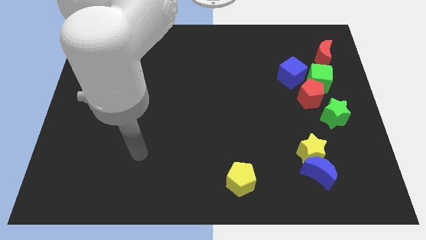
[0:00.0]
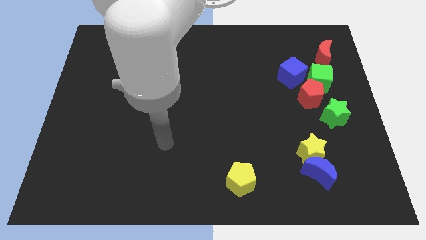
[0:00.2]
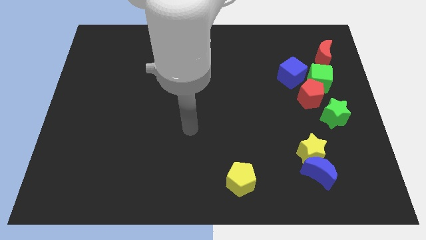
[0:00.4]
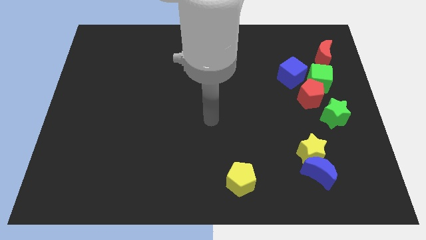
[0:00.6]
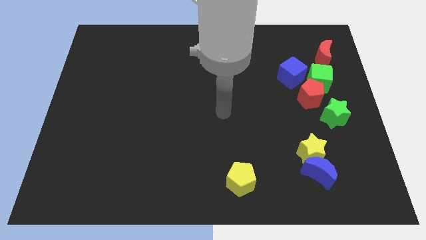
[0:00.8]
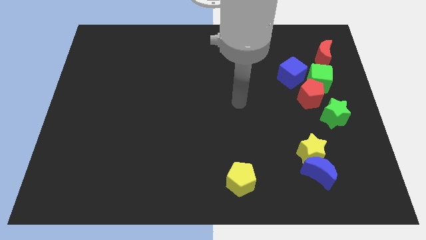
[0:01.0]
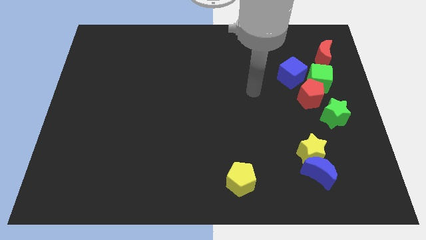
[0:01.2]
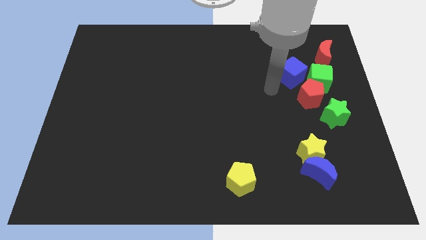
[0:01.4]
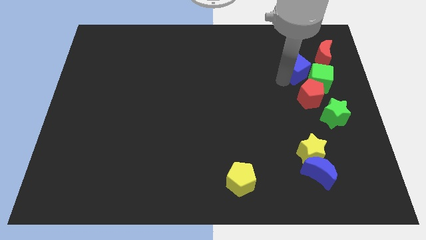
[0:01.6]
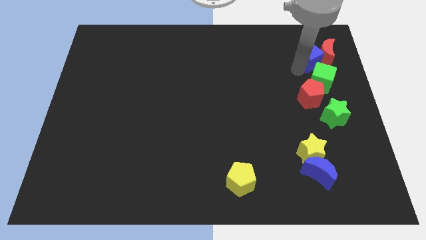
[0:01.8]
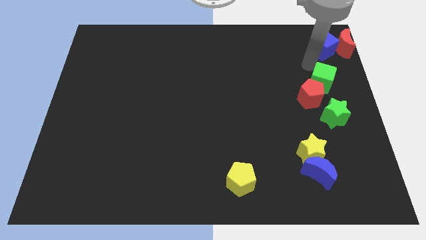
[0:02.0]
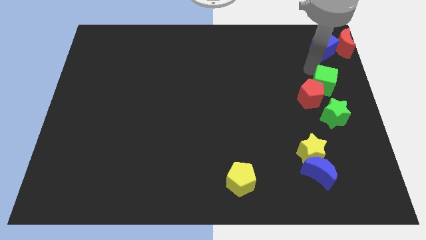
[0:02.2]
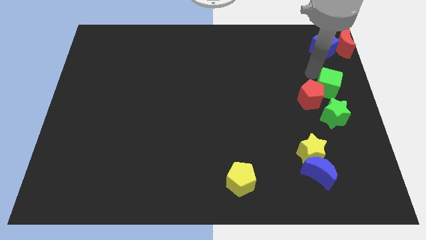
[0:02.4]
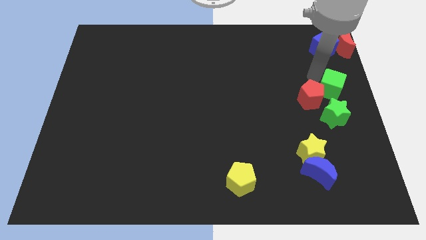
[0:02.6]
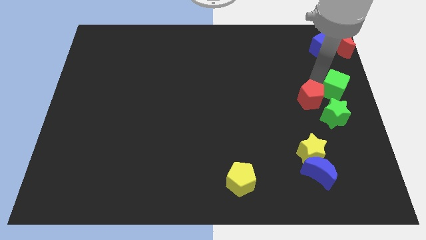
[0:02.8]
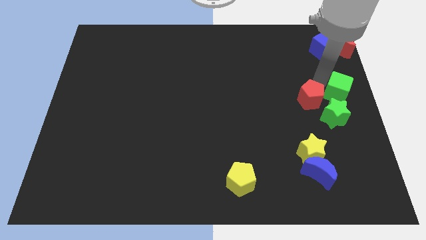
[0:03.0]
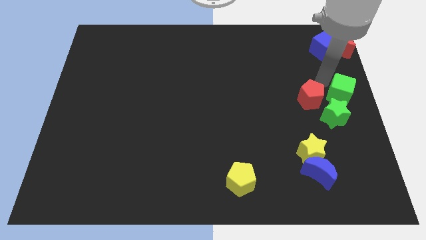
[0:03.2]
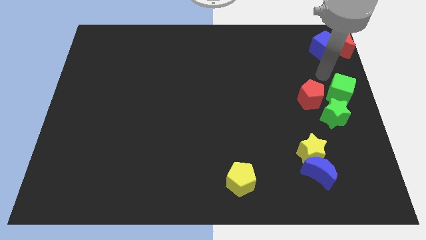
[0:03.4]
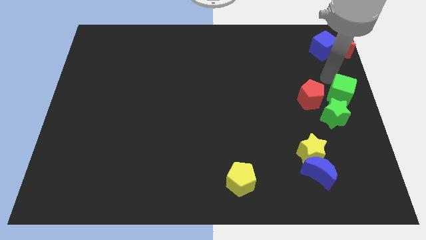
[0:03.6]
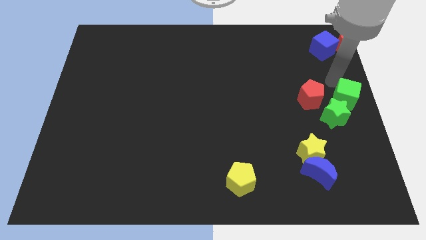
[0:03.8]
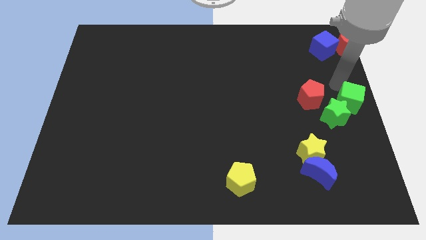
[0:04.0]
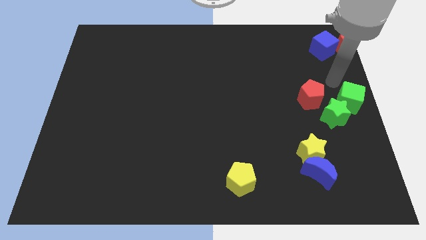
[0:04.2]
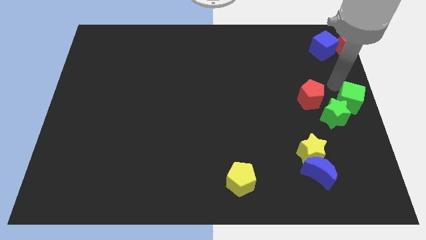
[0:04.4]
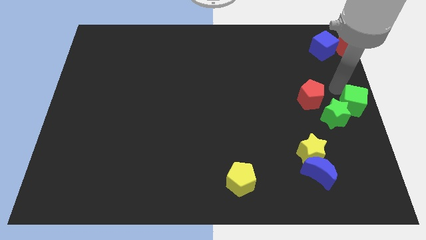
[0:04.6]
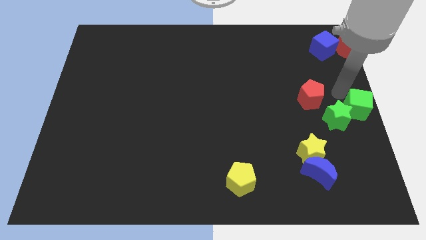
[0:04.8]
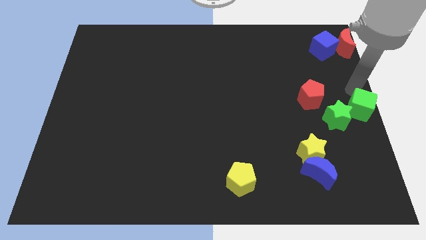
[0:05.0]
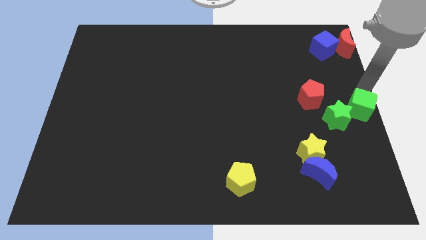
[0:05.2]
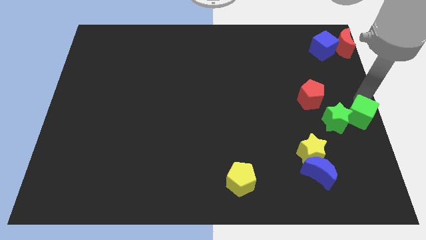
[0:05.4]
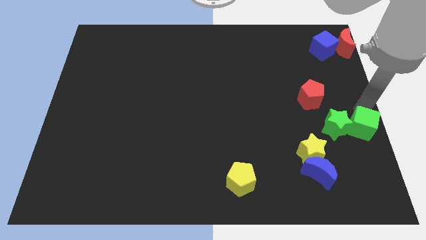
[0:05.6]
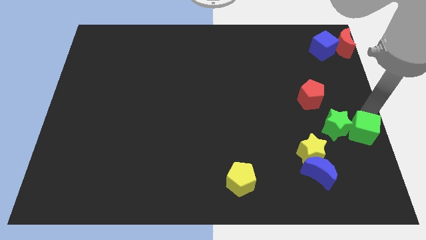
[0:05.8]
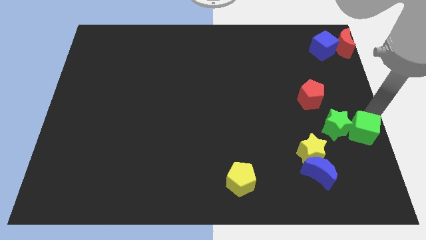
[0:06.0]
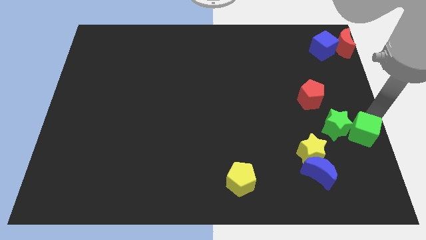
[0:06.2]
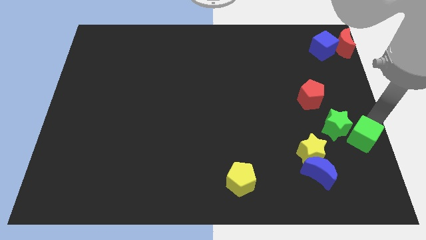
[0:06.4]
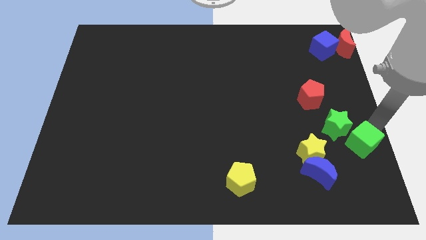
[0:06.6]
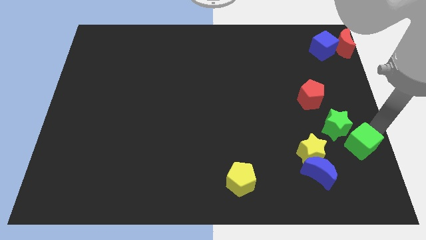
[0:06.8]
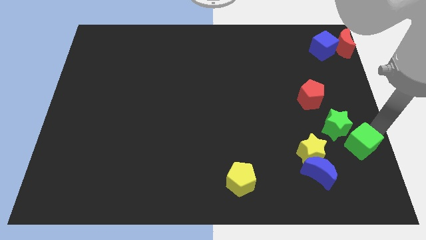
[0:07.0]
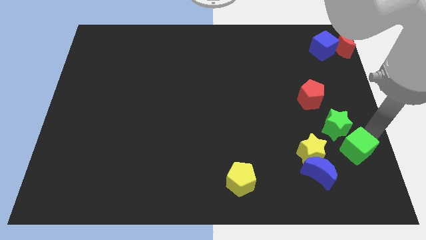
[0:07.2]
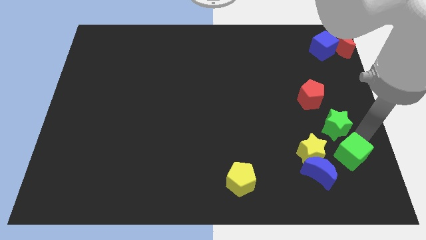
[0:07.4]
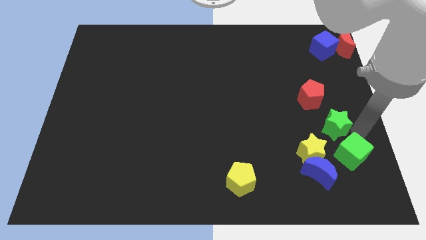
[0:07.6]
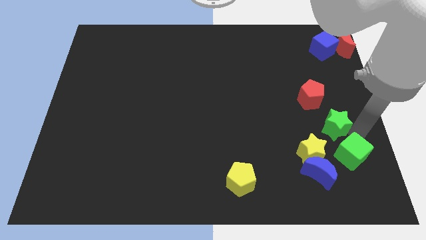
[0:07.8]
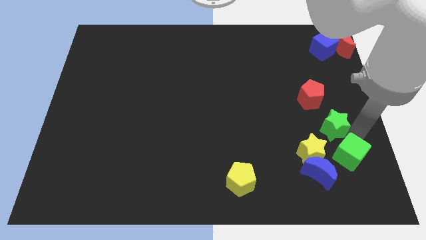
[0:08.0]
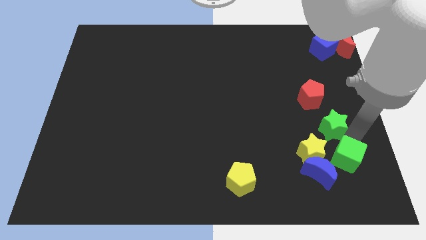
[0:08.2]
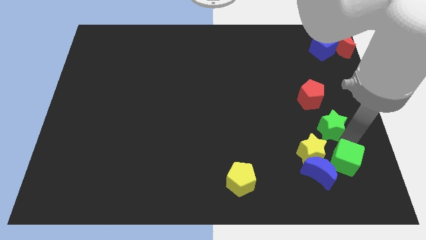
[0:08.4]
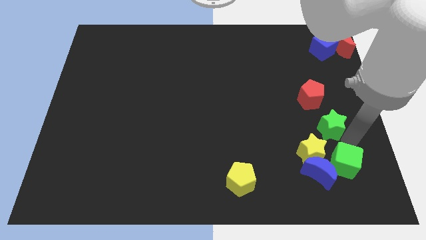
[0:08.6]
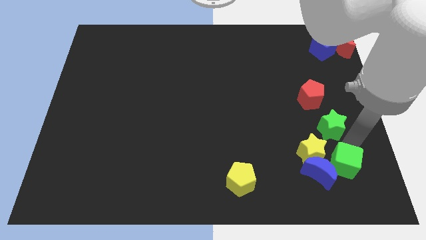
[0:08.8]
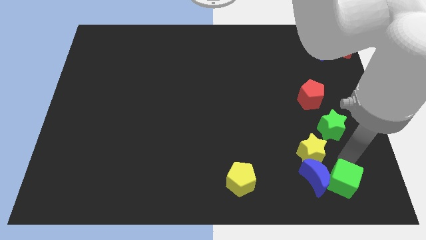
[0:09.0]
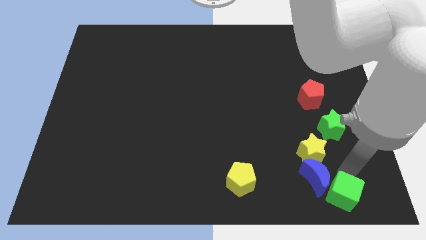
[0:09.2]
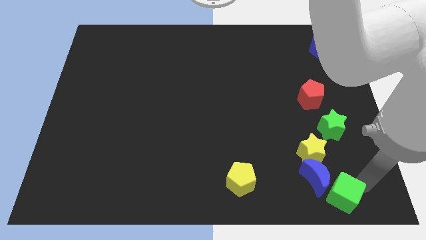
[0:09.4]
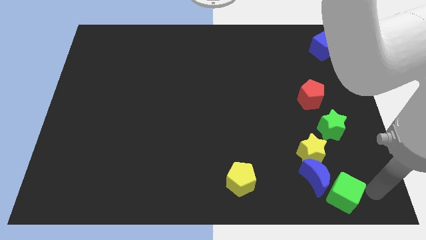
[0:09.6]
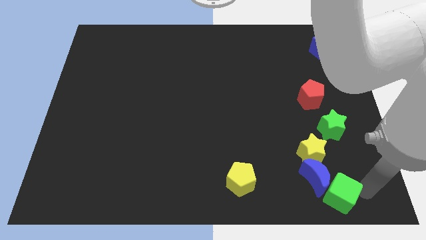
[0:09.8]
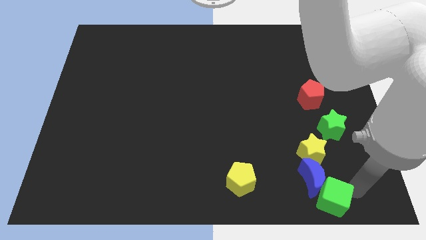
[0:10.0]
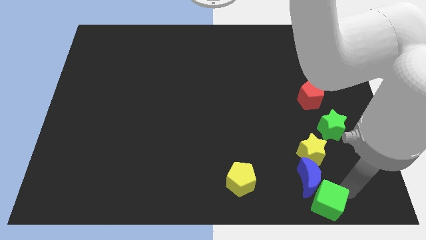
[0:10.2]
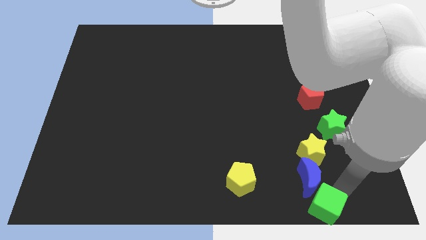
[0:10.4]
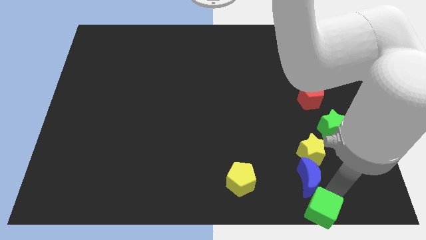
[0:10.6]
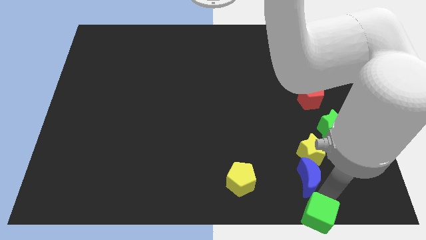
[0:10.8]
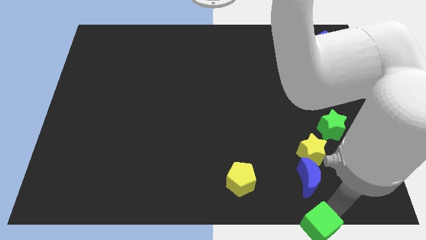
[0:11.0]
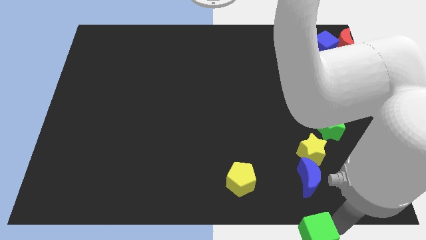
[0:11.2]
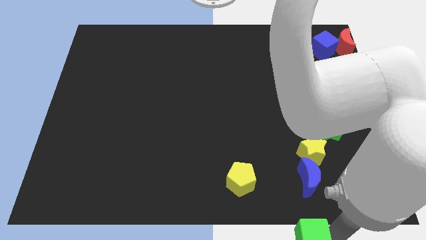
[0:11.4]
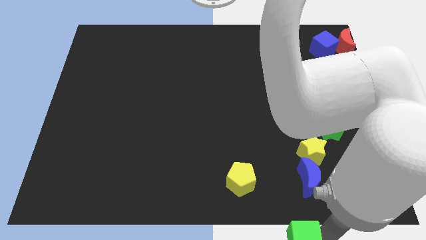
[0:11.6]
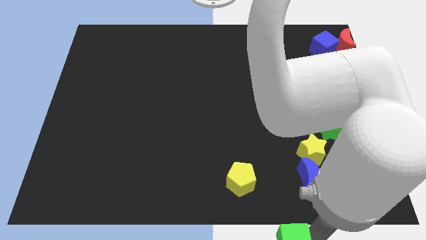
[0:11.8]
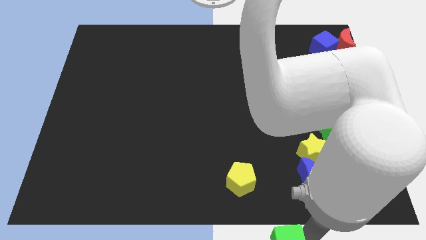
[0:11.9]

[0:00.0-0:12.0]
put the green cube to the bottom side
